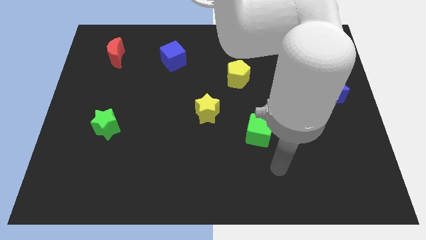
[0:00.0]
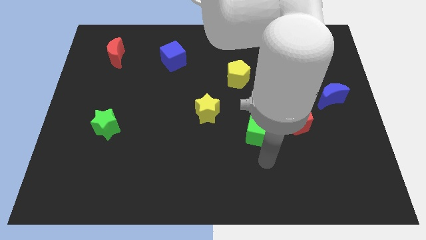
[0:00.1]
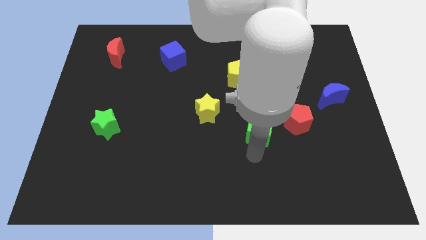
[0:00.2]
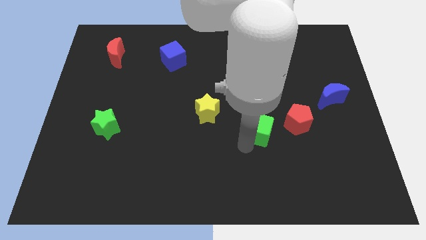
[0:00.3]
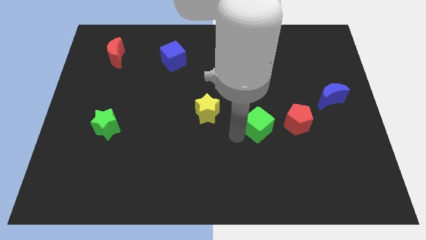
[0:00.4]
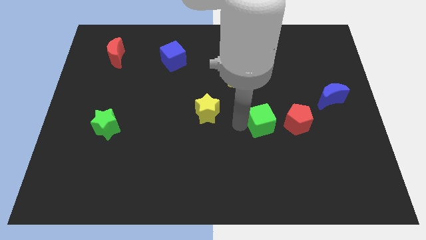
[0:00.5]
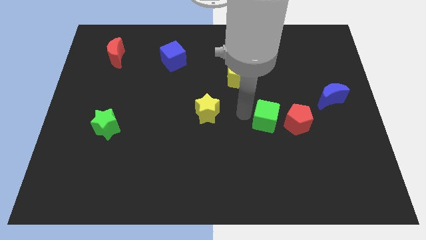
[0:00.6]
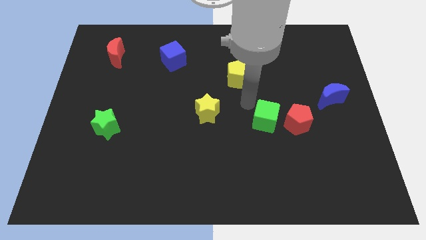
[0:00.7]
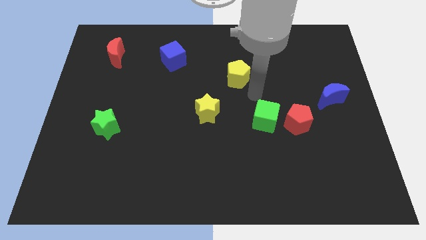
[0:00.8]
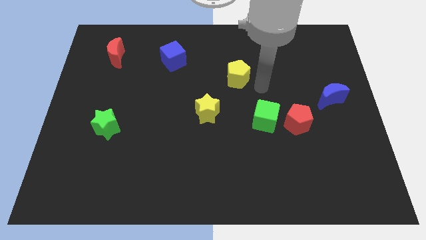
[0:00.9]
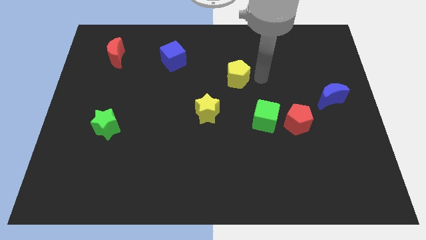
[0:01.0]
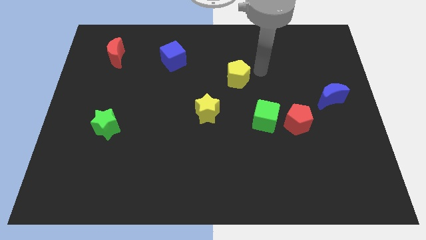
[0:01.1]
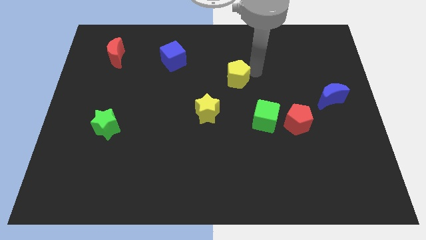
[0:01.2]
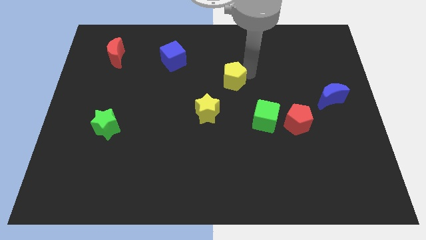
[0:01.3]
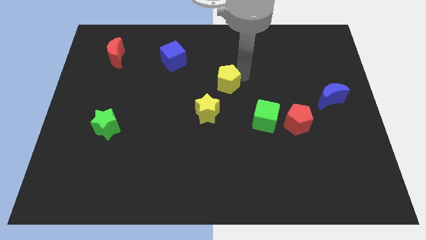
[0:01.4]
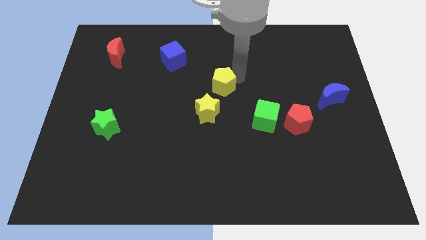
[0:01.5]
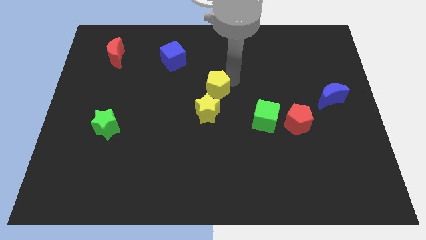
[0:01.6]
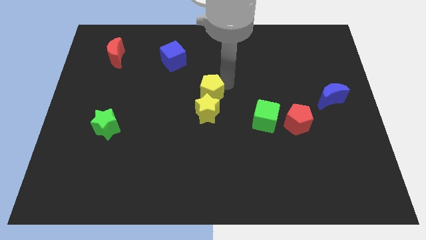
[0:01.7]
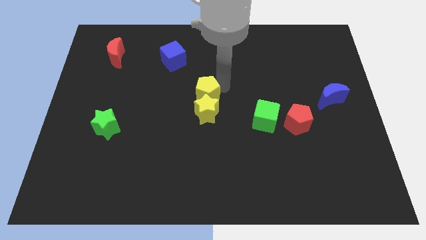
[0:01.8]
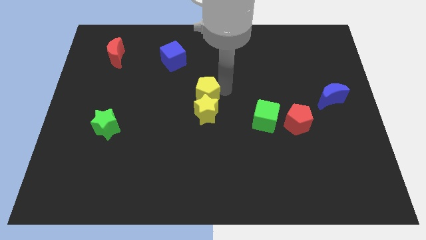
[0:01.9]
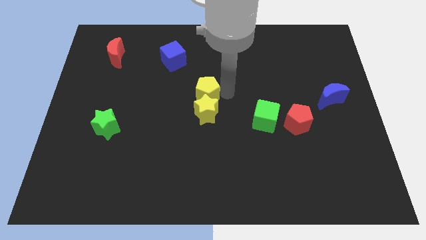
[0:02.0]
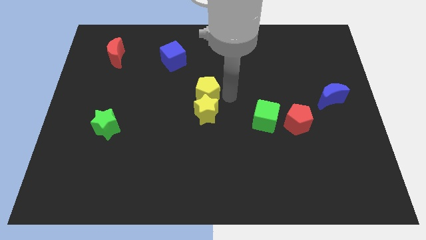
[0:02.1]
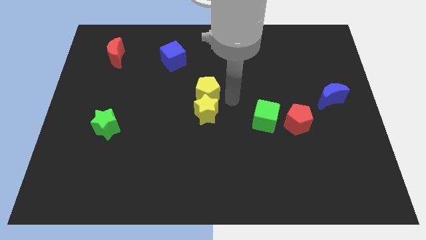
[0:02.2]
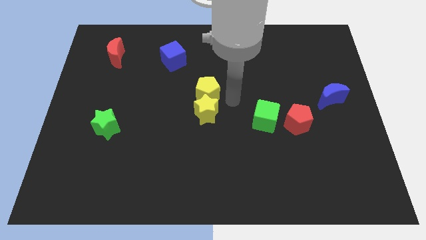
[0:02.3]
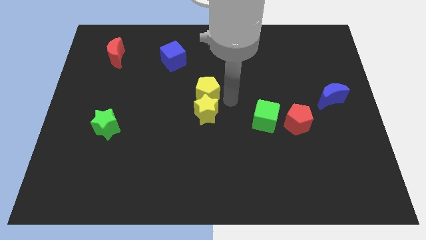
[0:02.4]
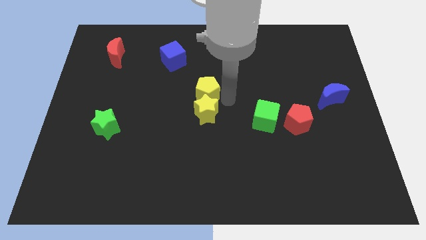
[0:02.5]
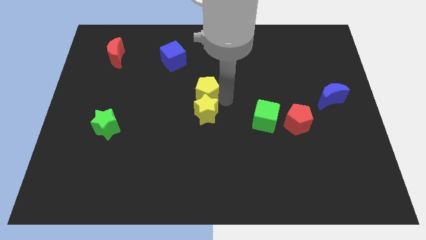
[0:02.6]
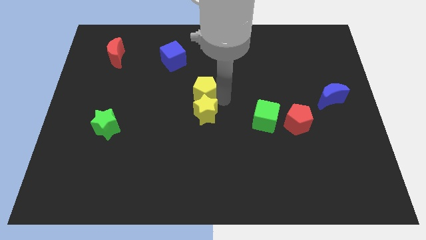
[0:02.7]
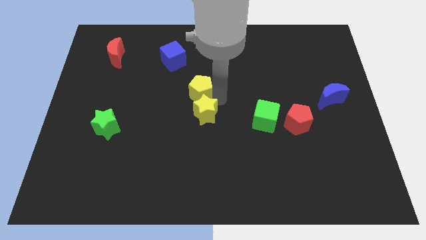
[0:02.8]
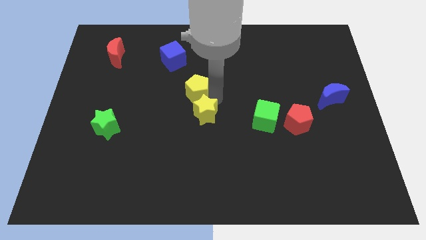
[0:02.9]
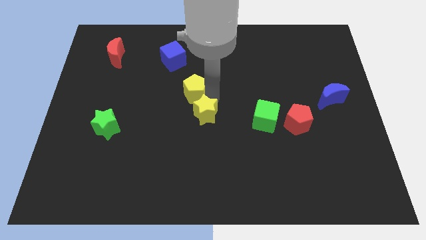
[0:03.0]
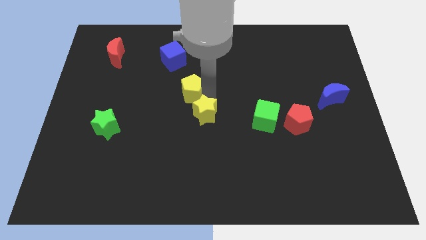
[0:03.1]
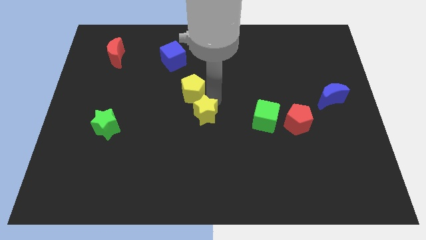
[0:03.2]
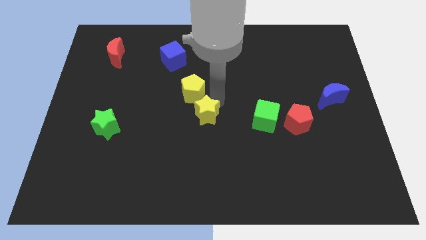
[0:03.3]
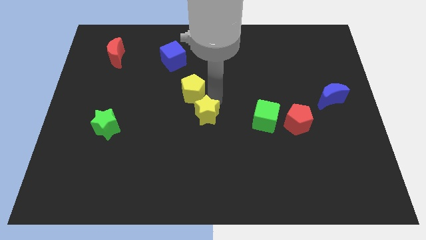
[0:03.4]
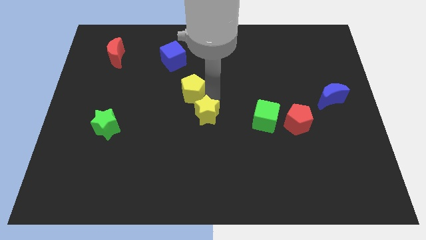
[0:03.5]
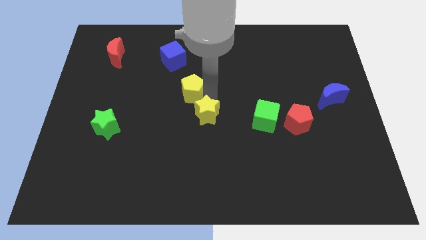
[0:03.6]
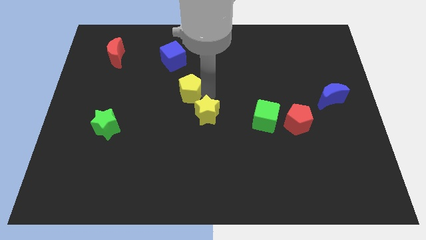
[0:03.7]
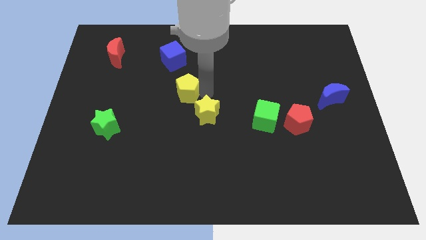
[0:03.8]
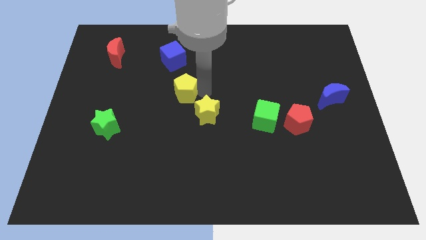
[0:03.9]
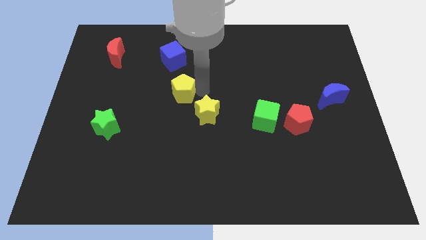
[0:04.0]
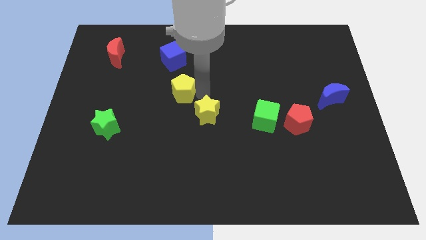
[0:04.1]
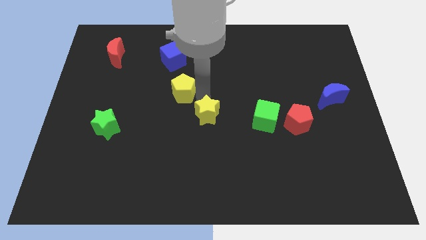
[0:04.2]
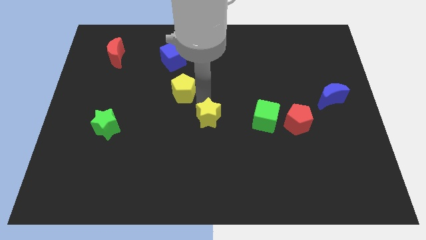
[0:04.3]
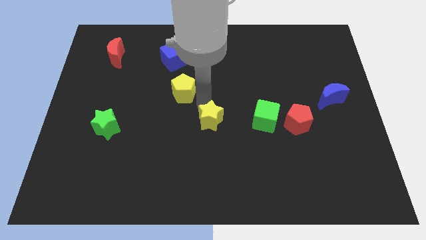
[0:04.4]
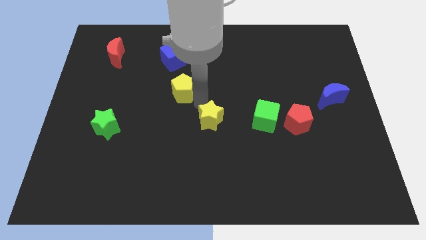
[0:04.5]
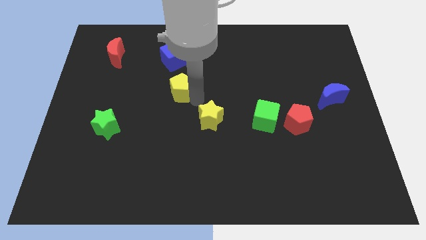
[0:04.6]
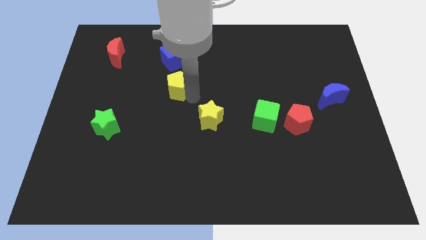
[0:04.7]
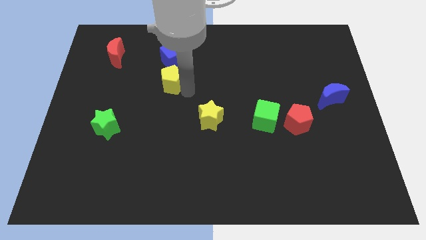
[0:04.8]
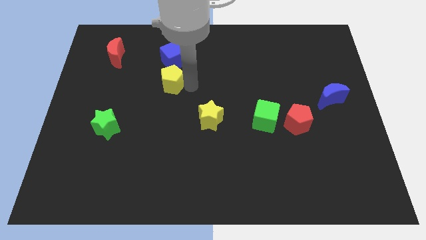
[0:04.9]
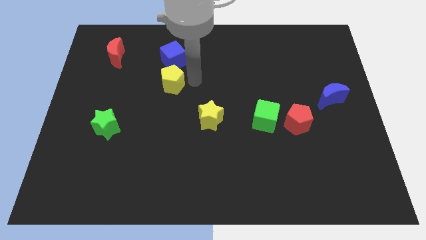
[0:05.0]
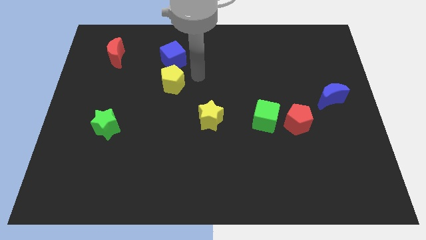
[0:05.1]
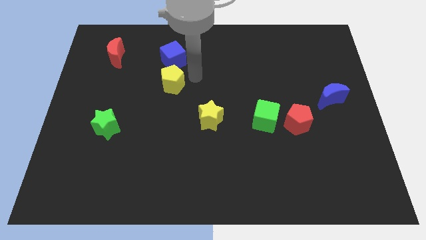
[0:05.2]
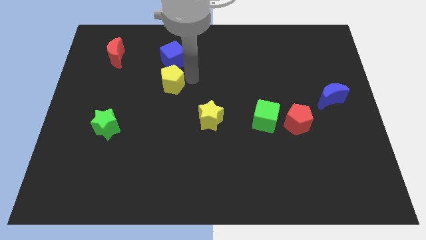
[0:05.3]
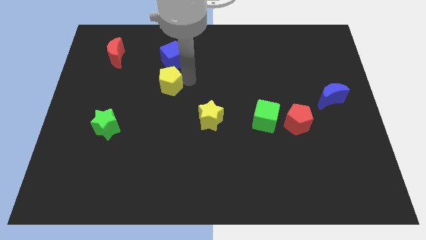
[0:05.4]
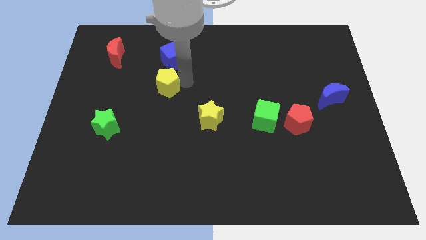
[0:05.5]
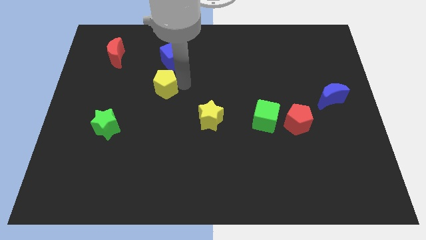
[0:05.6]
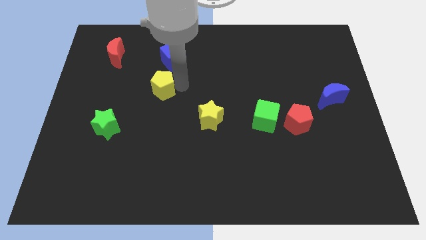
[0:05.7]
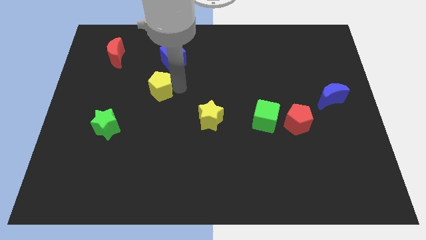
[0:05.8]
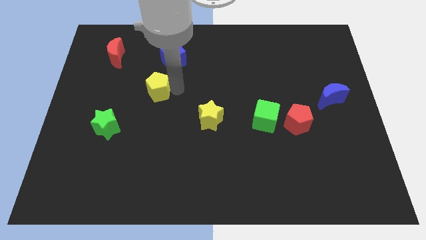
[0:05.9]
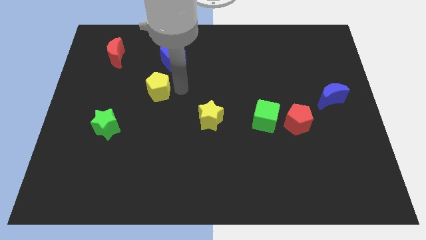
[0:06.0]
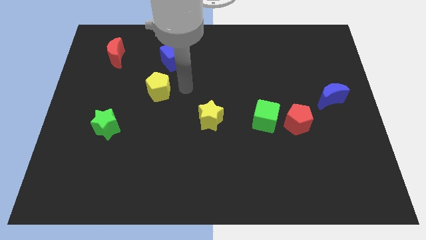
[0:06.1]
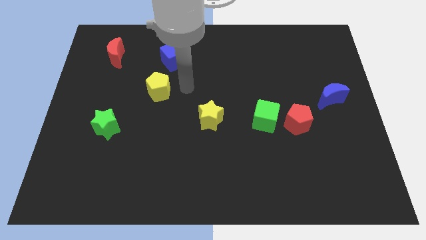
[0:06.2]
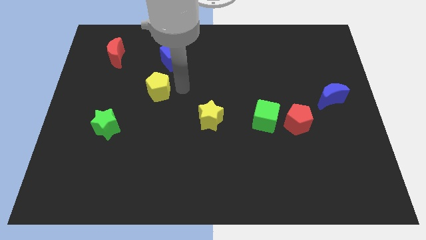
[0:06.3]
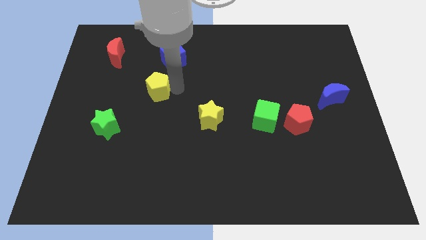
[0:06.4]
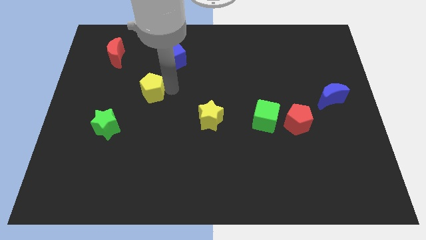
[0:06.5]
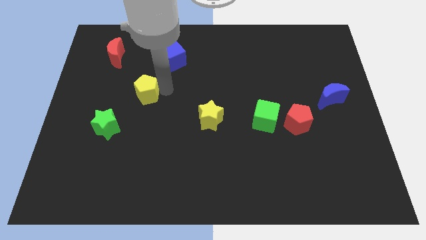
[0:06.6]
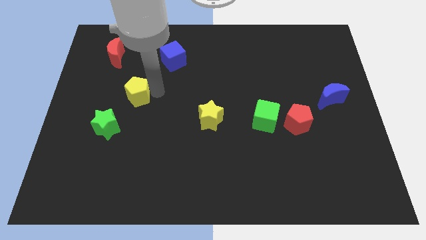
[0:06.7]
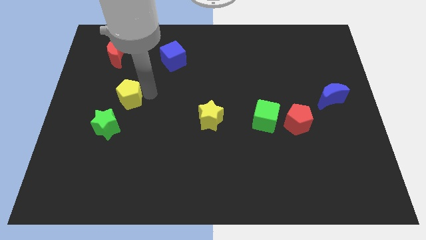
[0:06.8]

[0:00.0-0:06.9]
slide the yellow pentagon to the top of the green star
